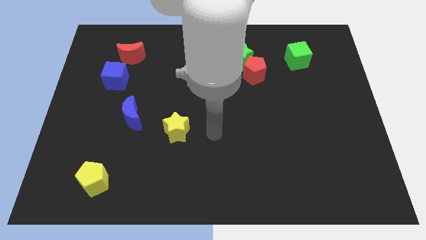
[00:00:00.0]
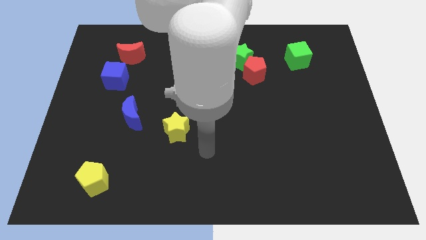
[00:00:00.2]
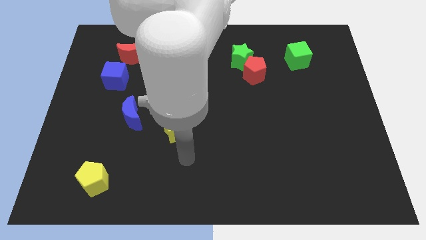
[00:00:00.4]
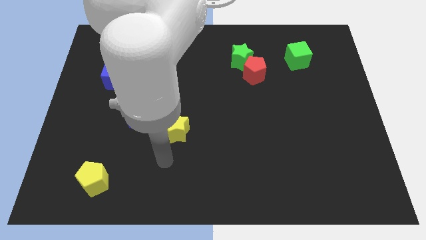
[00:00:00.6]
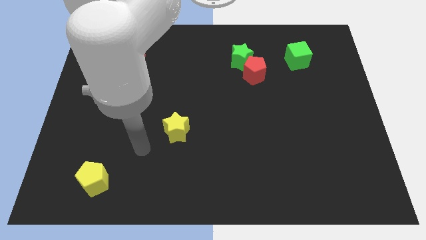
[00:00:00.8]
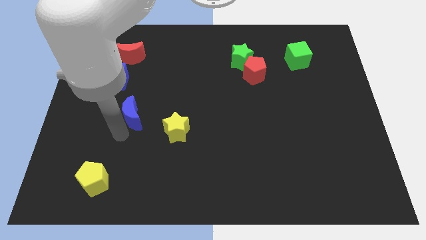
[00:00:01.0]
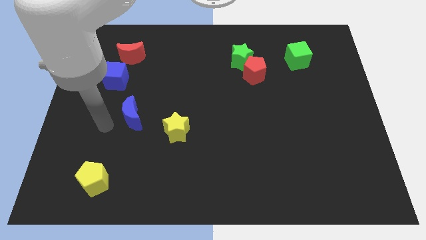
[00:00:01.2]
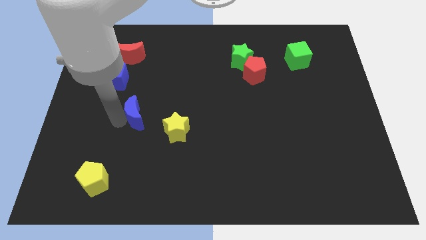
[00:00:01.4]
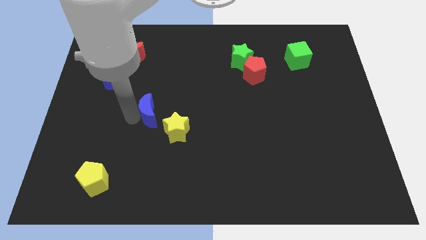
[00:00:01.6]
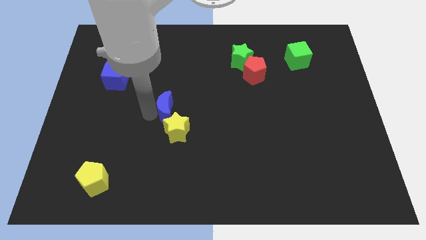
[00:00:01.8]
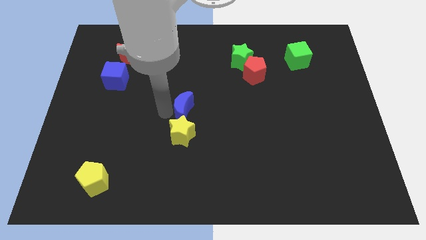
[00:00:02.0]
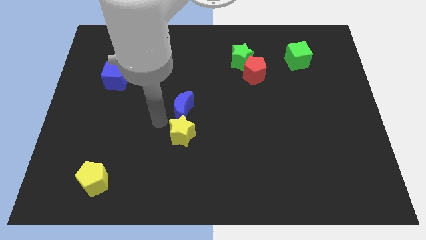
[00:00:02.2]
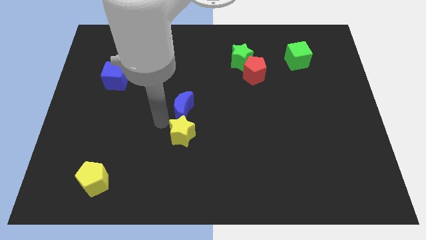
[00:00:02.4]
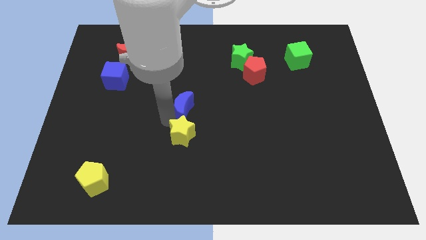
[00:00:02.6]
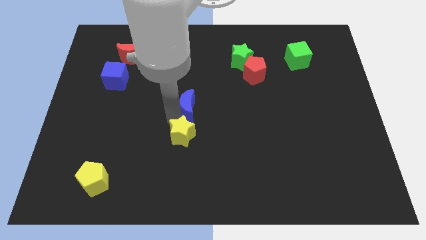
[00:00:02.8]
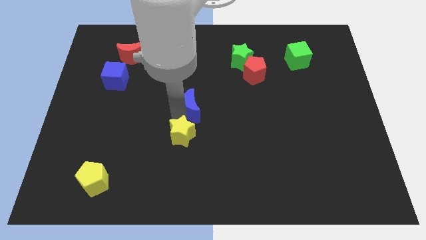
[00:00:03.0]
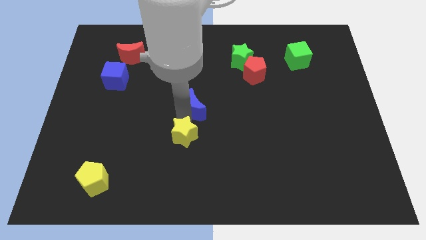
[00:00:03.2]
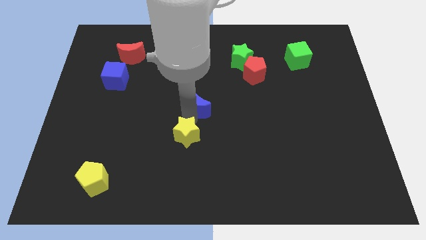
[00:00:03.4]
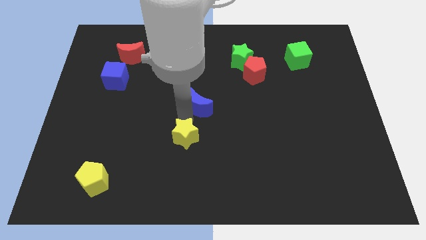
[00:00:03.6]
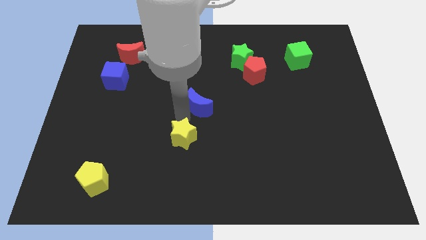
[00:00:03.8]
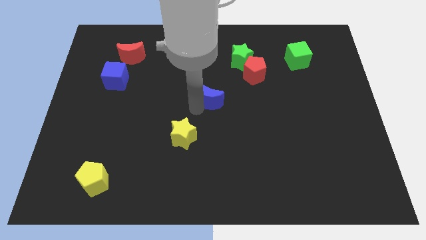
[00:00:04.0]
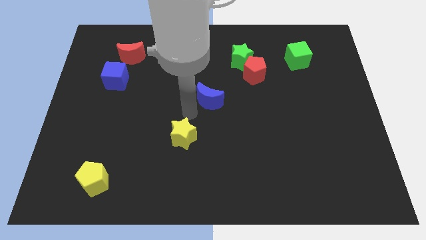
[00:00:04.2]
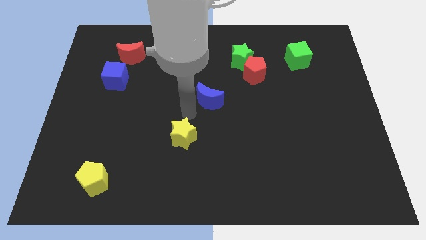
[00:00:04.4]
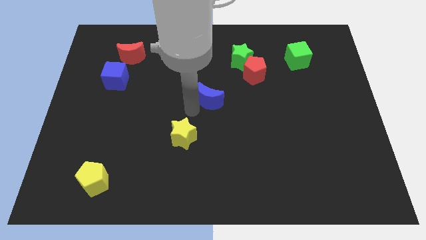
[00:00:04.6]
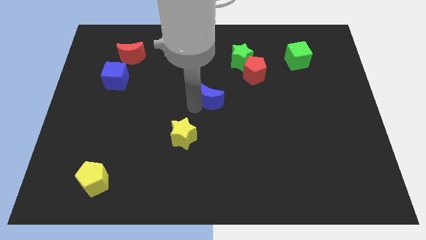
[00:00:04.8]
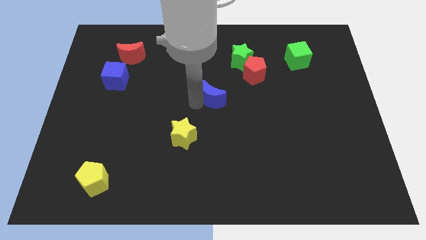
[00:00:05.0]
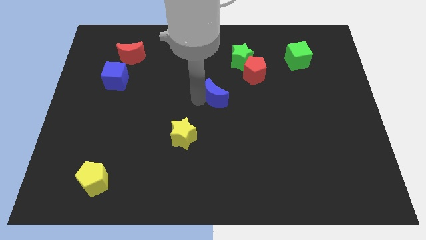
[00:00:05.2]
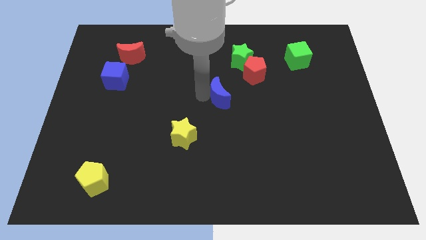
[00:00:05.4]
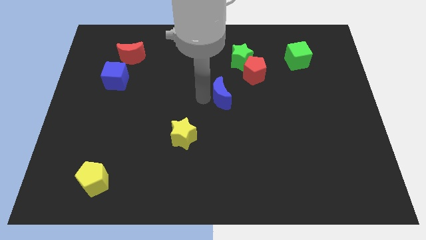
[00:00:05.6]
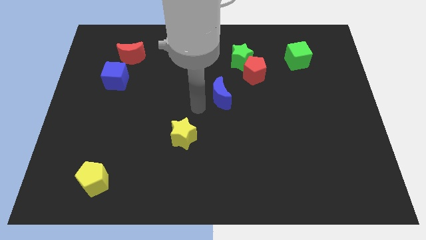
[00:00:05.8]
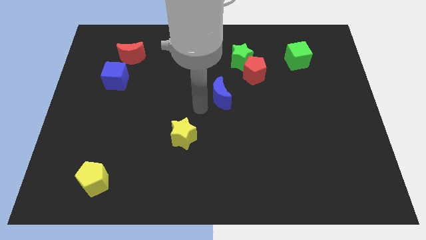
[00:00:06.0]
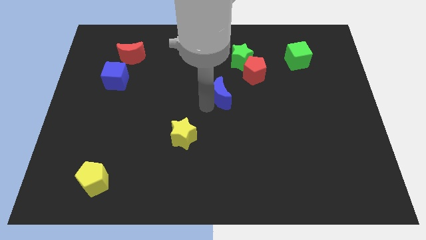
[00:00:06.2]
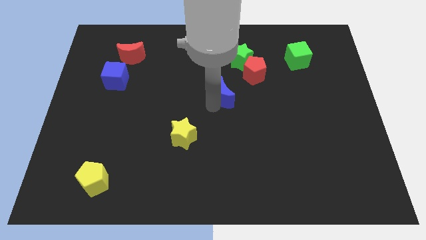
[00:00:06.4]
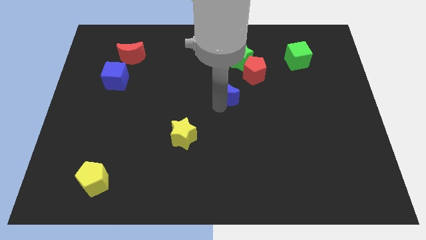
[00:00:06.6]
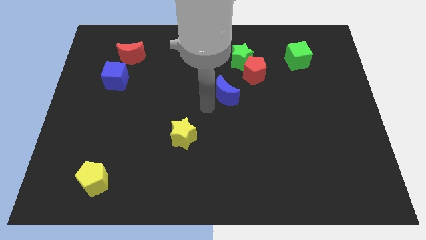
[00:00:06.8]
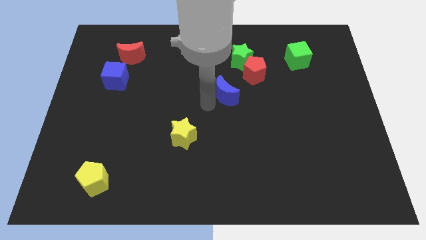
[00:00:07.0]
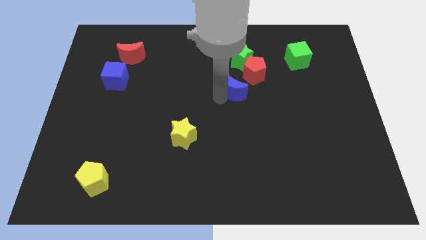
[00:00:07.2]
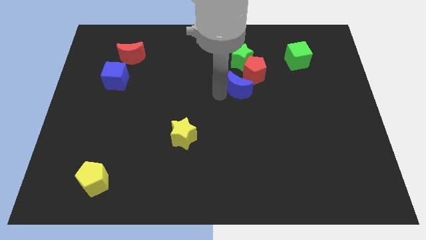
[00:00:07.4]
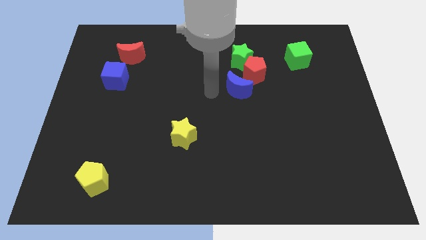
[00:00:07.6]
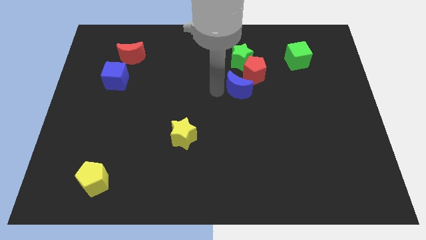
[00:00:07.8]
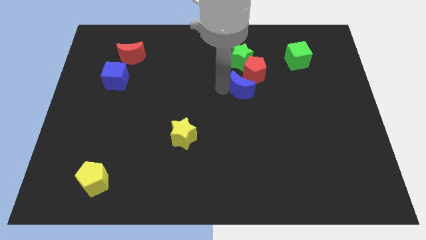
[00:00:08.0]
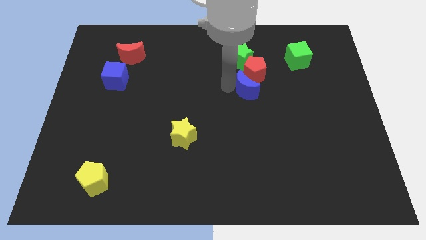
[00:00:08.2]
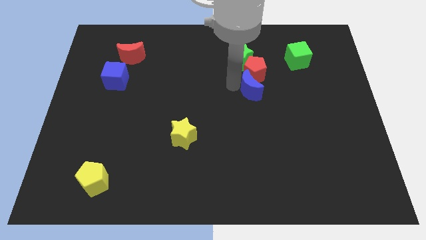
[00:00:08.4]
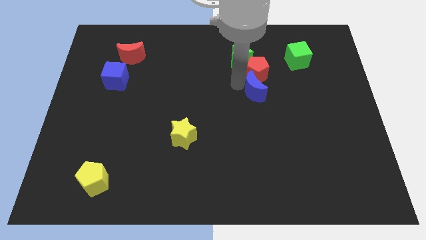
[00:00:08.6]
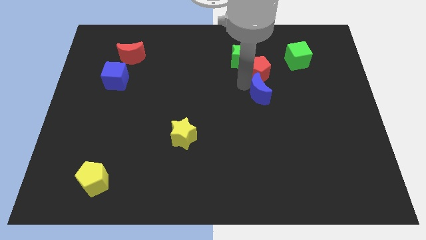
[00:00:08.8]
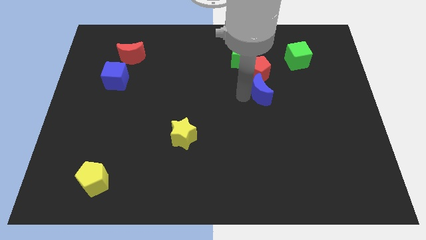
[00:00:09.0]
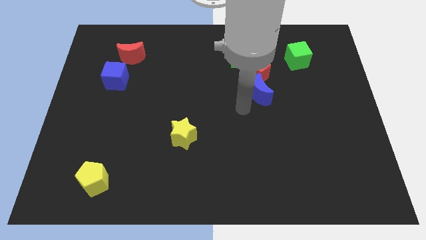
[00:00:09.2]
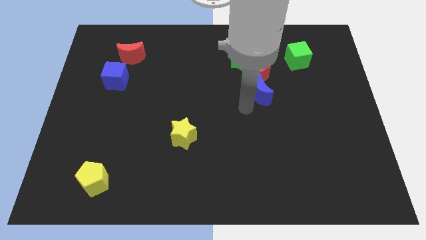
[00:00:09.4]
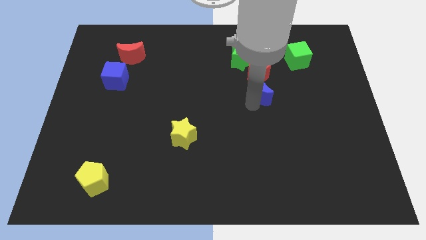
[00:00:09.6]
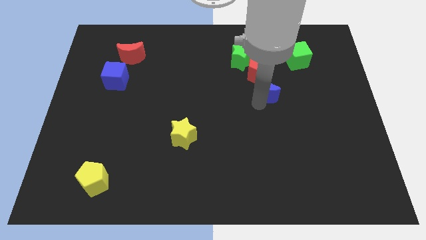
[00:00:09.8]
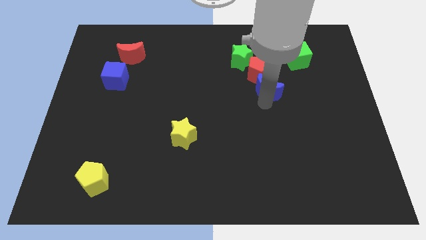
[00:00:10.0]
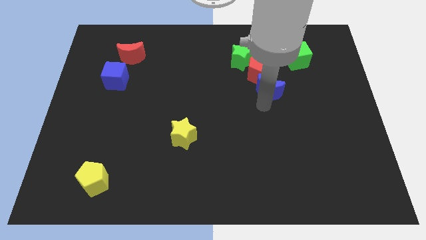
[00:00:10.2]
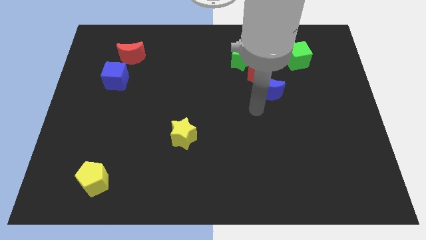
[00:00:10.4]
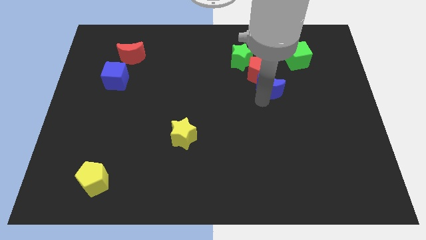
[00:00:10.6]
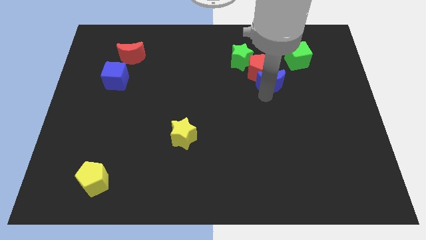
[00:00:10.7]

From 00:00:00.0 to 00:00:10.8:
move the blue moon to the bottom left side of the green cube
